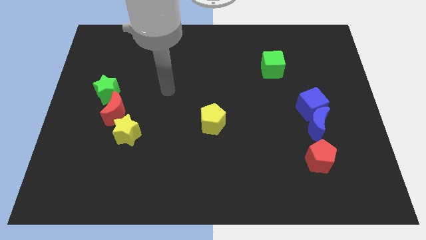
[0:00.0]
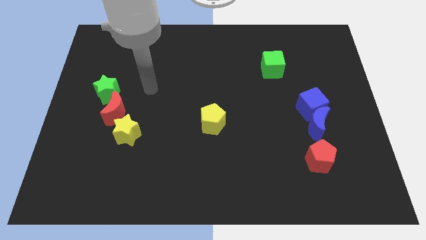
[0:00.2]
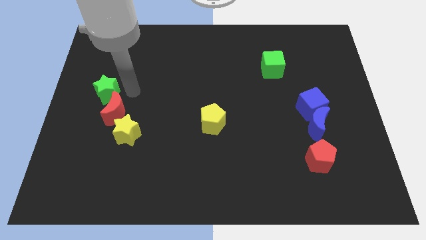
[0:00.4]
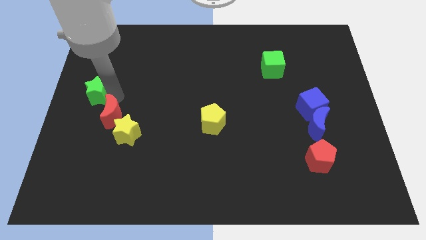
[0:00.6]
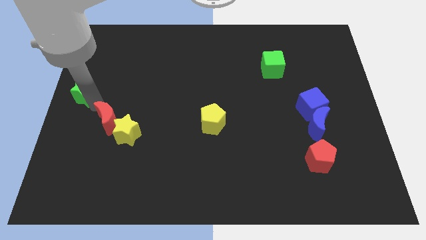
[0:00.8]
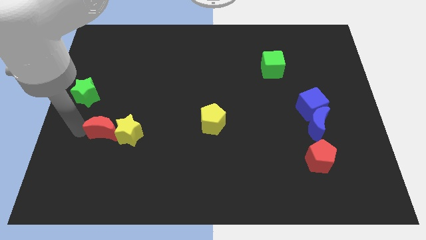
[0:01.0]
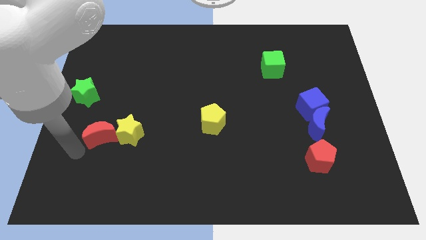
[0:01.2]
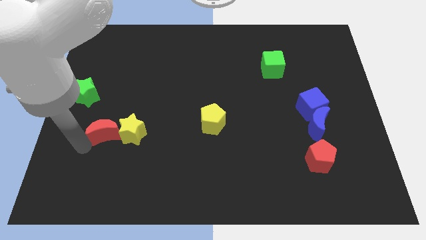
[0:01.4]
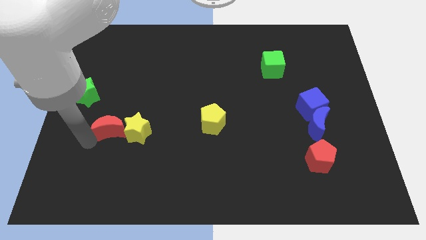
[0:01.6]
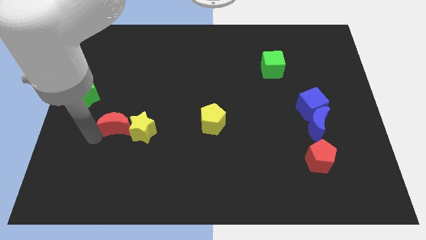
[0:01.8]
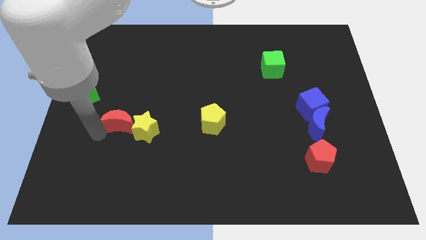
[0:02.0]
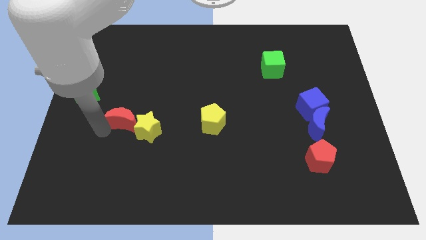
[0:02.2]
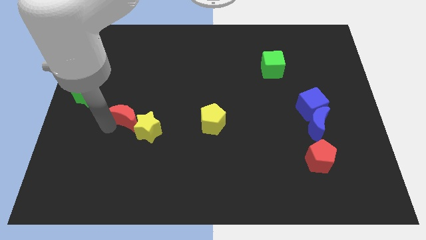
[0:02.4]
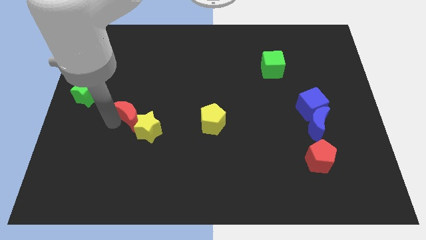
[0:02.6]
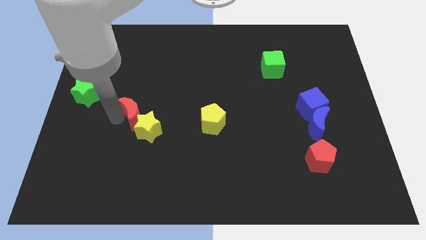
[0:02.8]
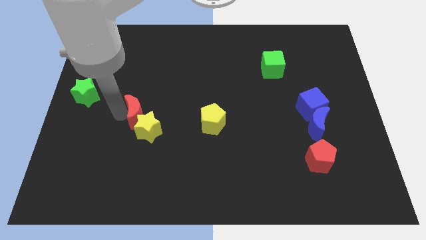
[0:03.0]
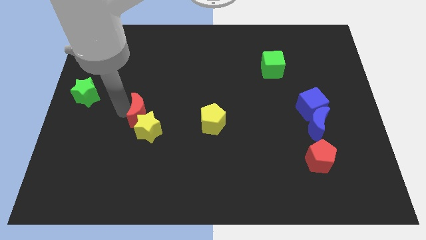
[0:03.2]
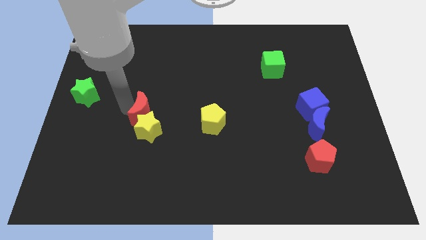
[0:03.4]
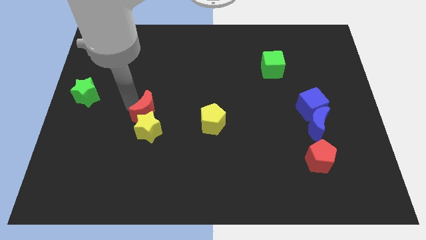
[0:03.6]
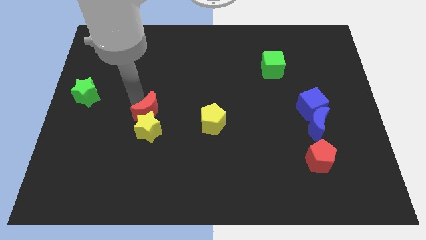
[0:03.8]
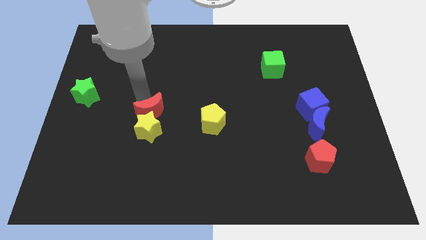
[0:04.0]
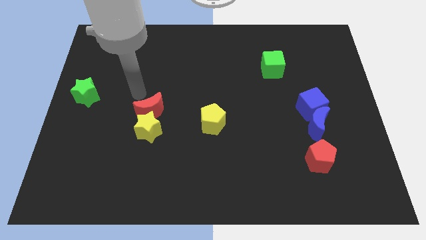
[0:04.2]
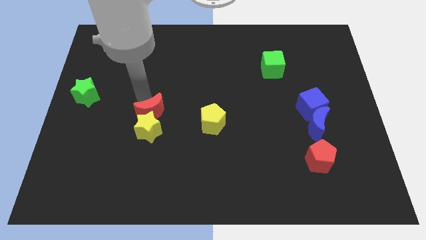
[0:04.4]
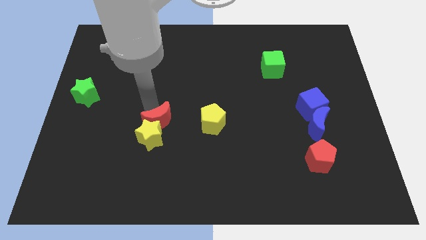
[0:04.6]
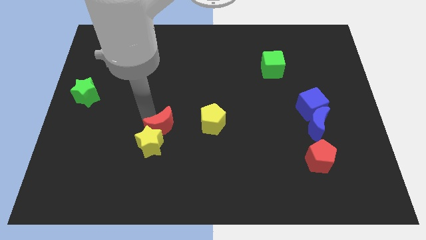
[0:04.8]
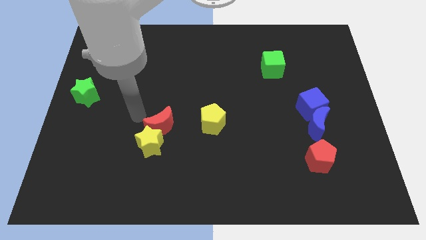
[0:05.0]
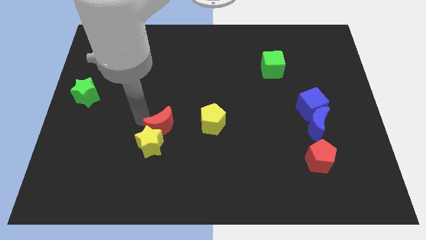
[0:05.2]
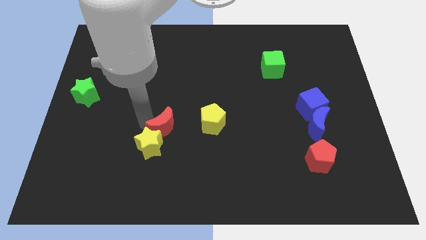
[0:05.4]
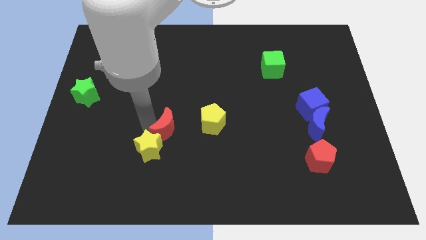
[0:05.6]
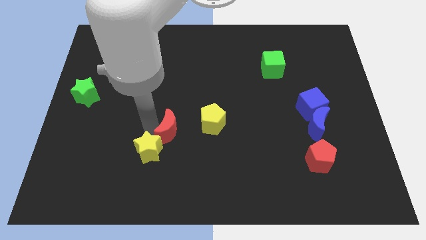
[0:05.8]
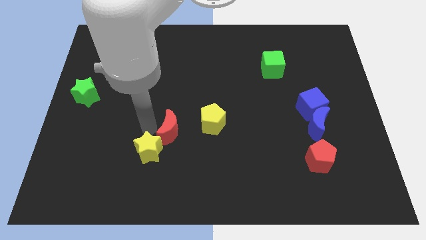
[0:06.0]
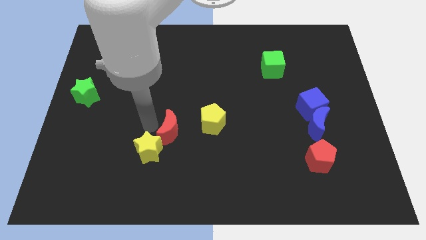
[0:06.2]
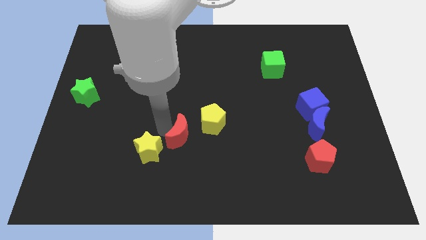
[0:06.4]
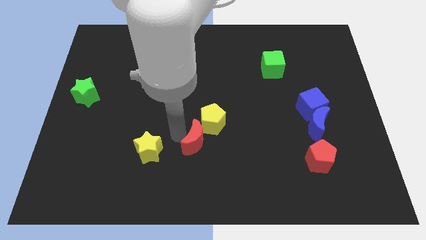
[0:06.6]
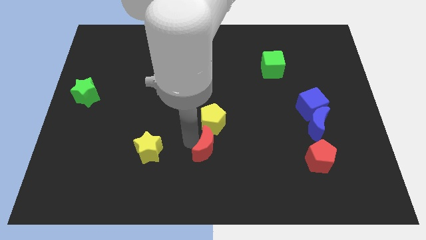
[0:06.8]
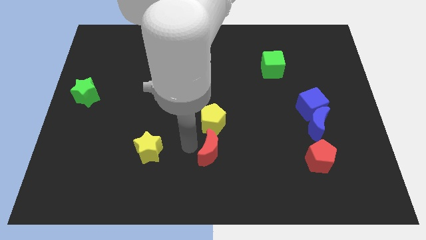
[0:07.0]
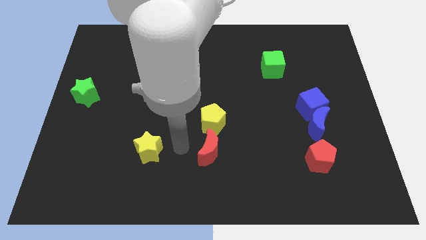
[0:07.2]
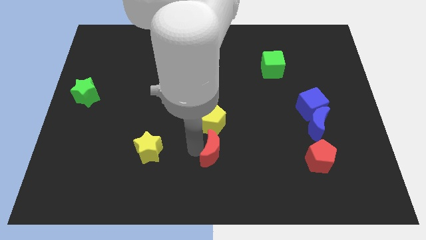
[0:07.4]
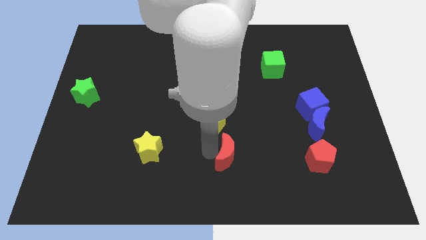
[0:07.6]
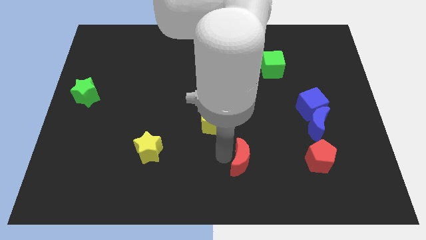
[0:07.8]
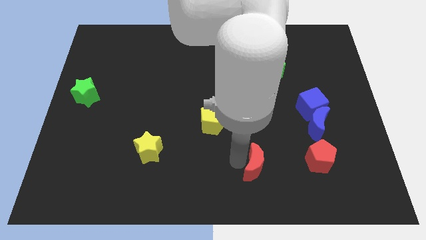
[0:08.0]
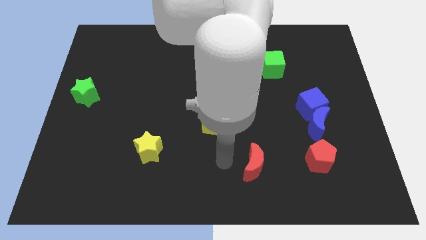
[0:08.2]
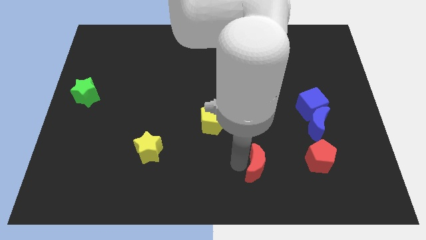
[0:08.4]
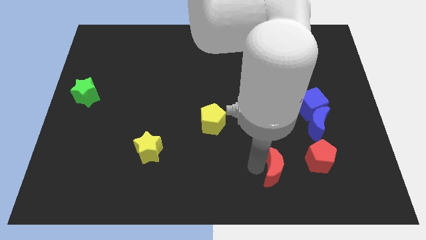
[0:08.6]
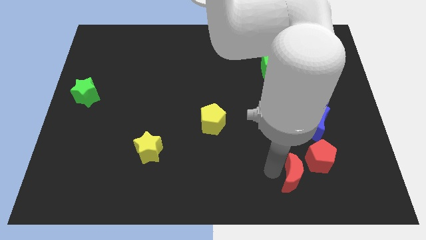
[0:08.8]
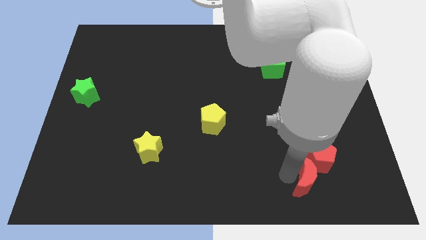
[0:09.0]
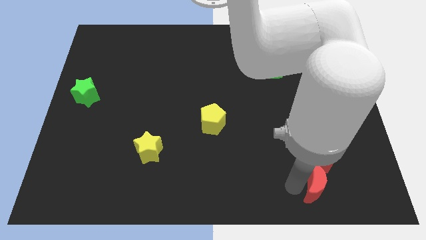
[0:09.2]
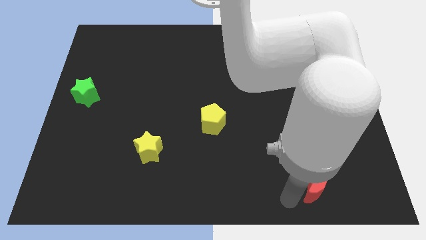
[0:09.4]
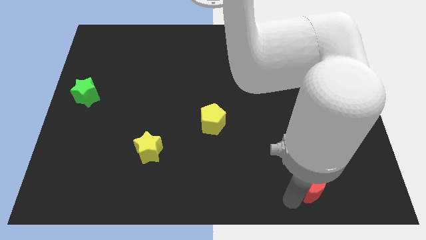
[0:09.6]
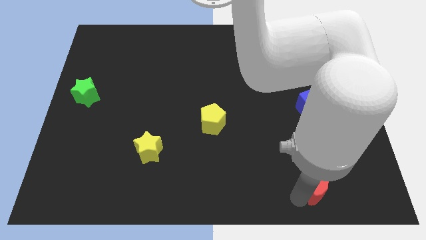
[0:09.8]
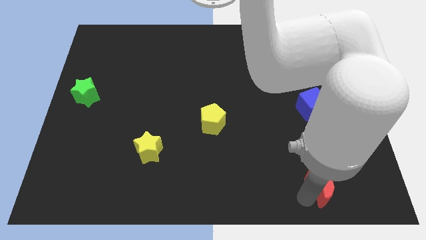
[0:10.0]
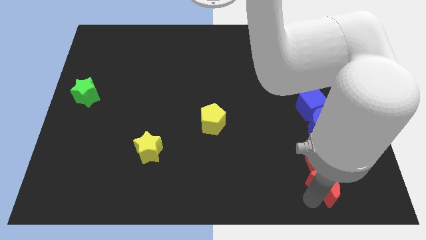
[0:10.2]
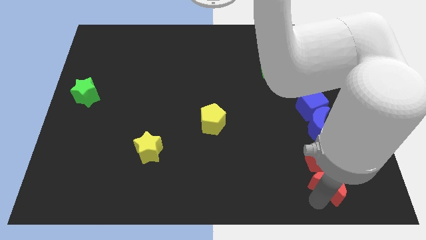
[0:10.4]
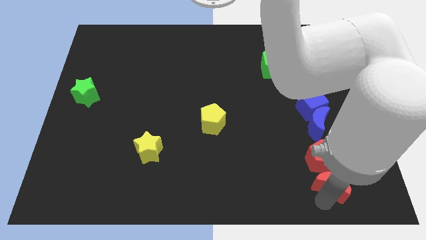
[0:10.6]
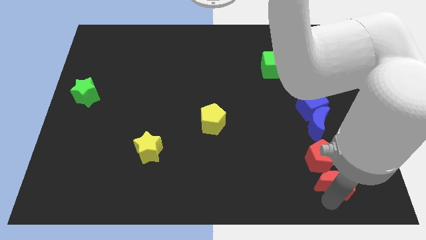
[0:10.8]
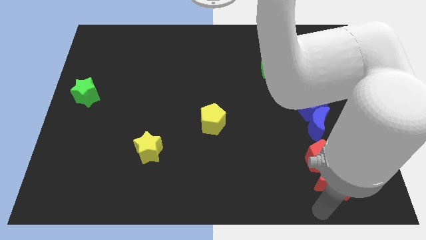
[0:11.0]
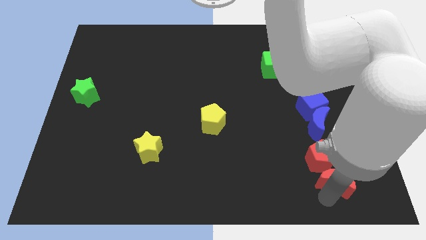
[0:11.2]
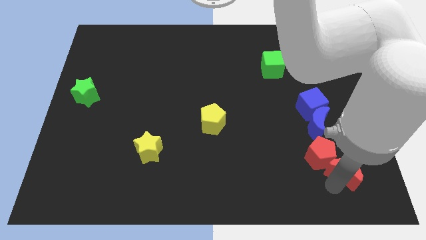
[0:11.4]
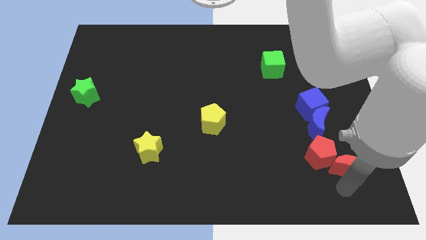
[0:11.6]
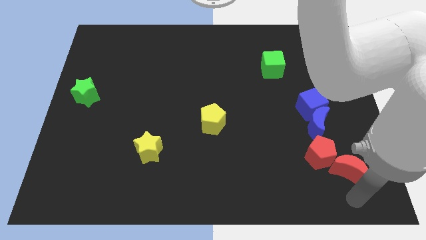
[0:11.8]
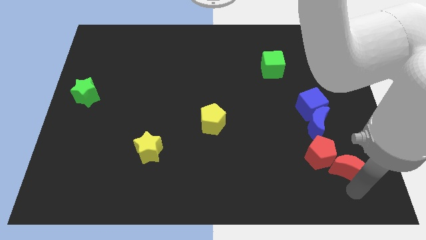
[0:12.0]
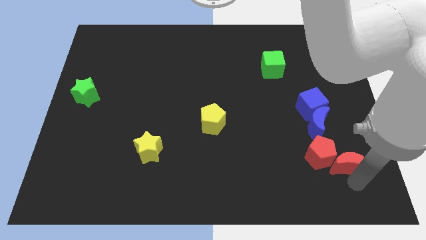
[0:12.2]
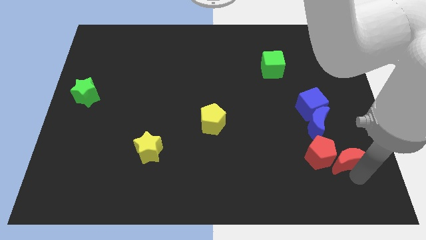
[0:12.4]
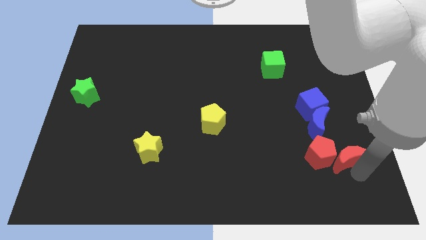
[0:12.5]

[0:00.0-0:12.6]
push the red moon to the top right side of the red pentagon
